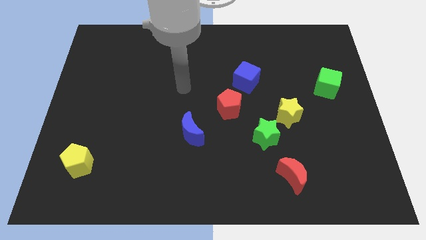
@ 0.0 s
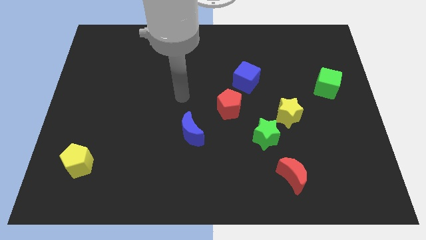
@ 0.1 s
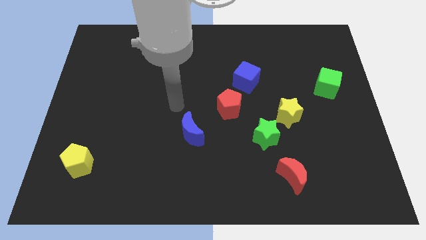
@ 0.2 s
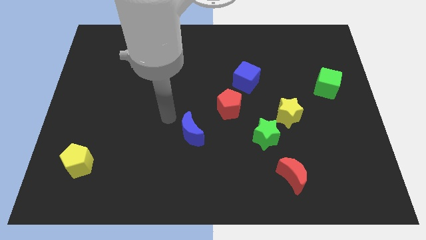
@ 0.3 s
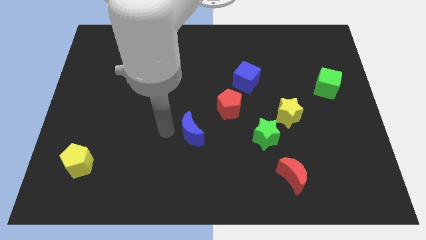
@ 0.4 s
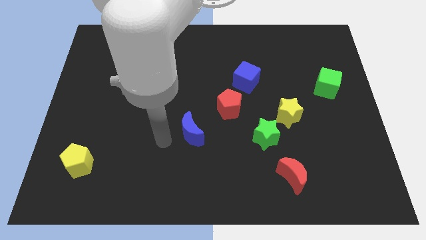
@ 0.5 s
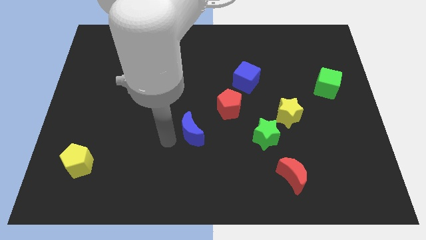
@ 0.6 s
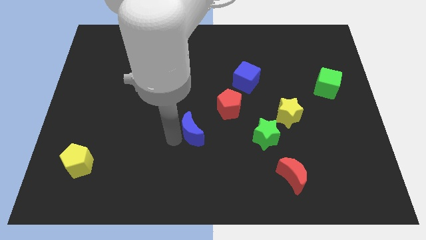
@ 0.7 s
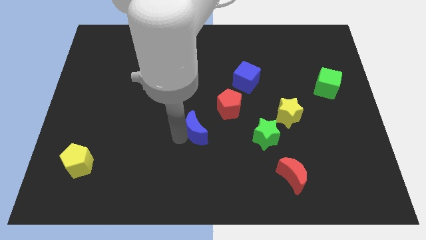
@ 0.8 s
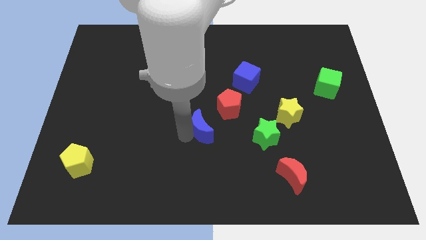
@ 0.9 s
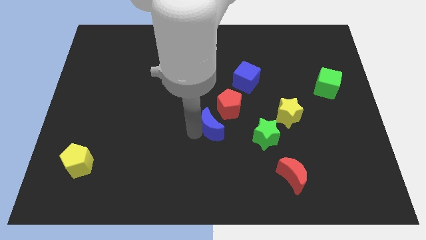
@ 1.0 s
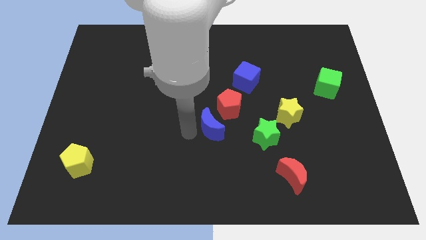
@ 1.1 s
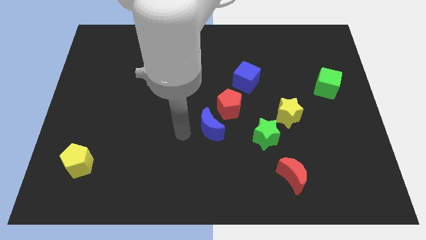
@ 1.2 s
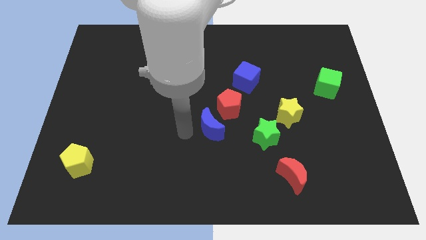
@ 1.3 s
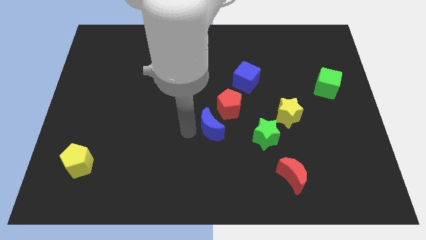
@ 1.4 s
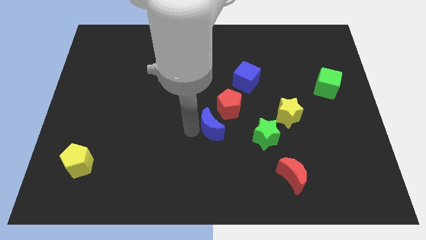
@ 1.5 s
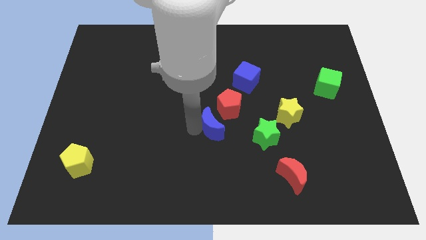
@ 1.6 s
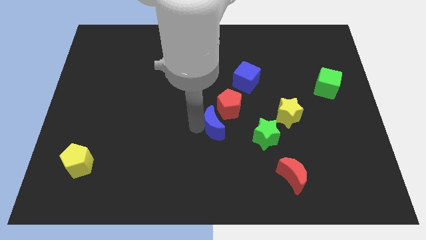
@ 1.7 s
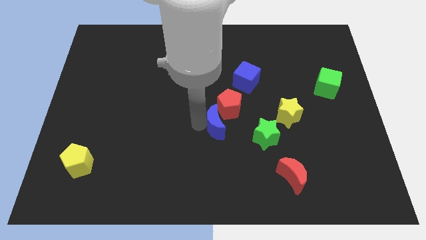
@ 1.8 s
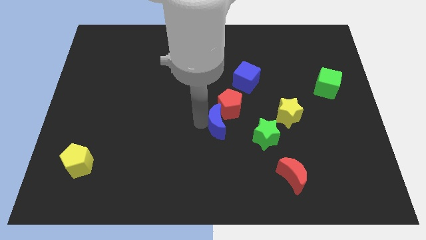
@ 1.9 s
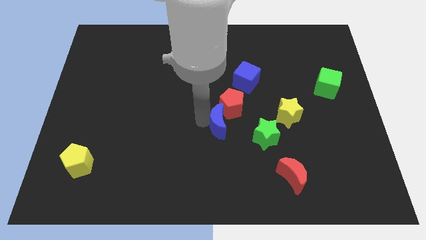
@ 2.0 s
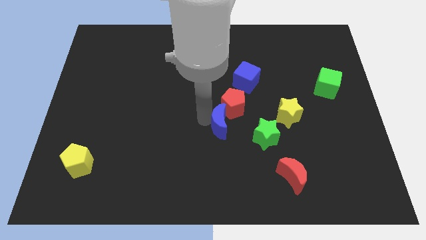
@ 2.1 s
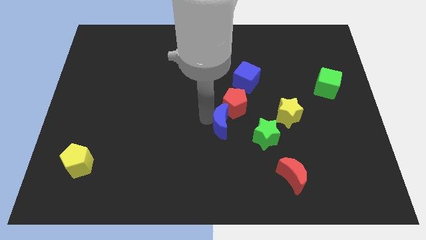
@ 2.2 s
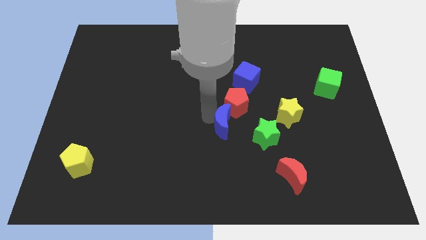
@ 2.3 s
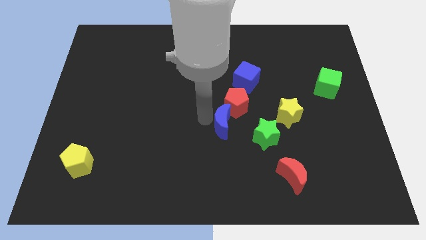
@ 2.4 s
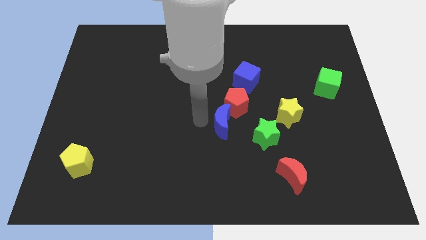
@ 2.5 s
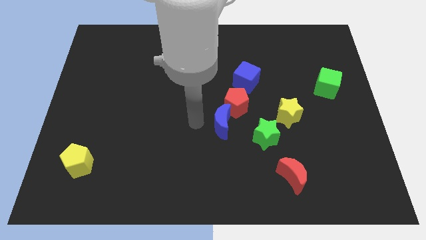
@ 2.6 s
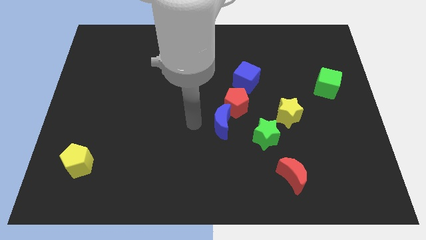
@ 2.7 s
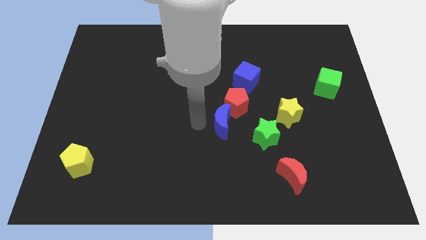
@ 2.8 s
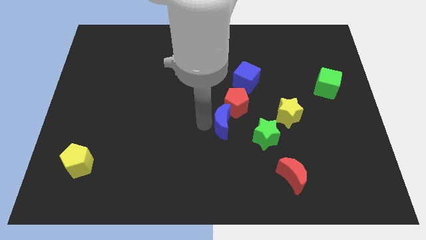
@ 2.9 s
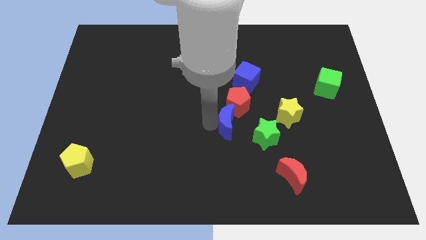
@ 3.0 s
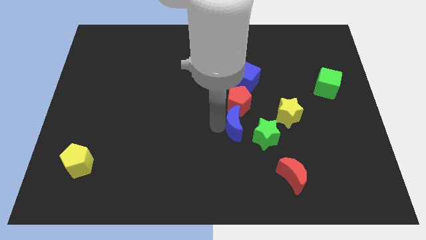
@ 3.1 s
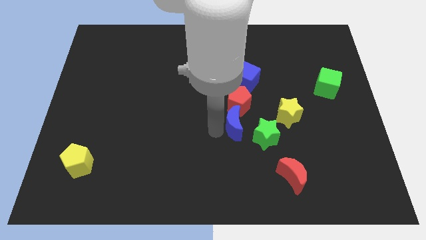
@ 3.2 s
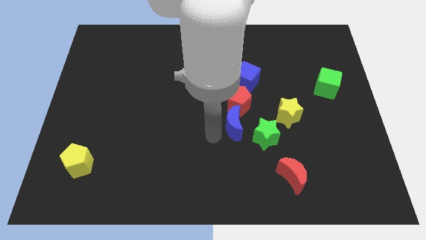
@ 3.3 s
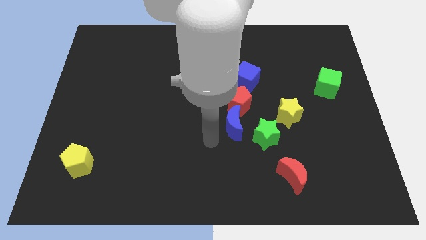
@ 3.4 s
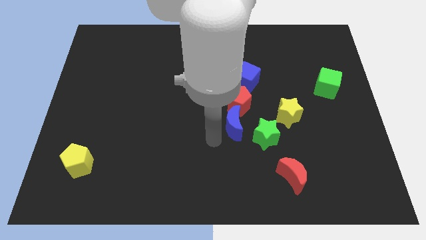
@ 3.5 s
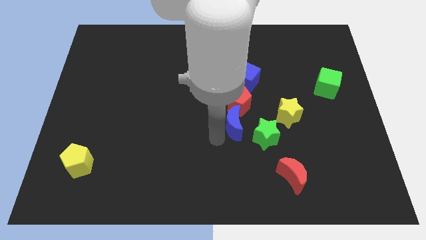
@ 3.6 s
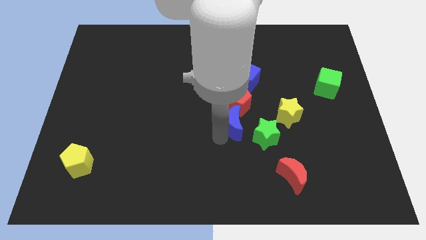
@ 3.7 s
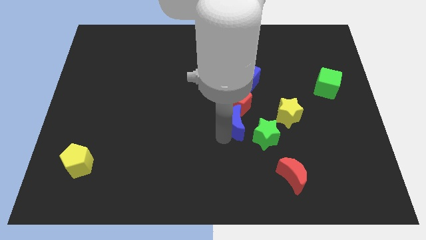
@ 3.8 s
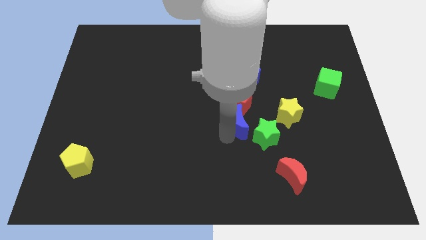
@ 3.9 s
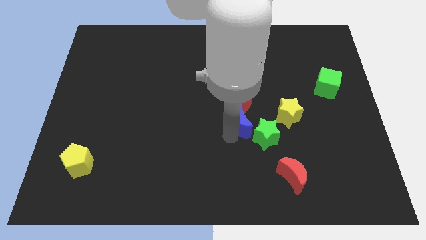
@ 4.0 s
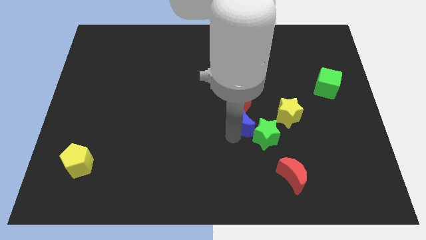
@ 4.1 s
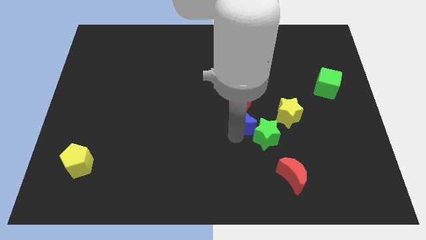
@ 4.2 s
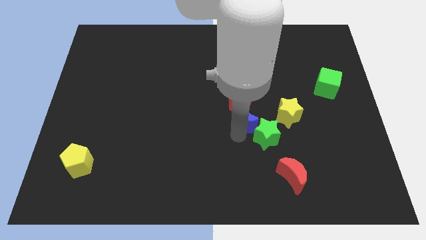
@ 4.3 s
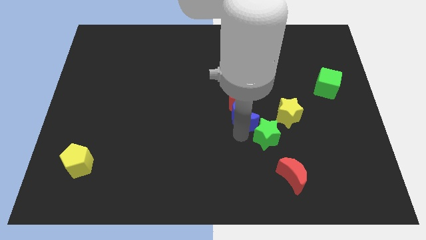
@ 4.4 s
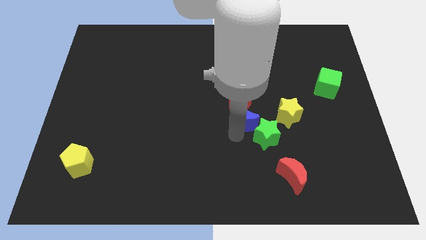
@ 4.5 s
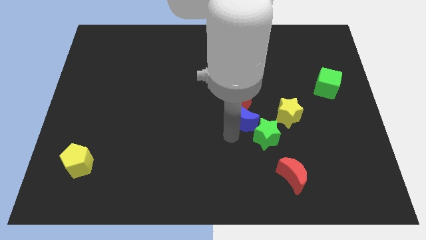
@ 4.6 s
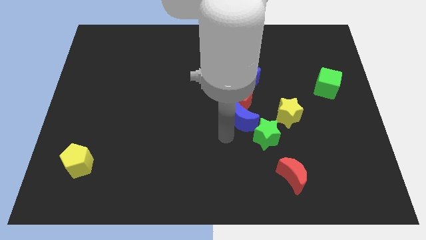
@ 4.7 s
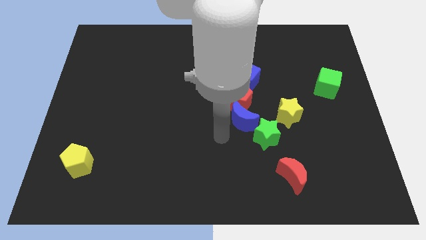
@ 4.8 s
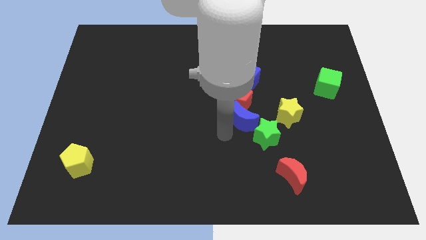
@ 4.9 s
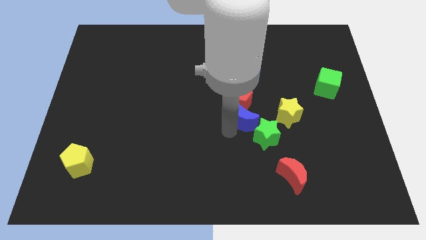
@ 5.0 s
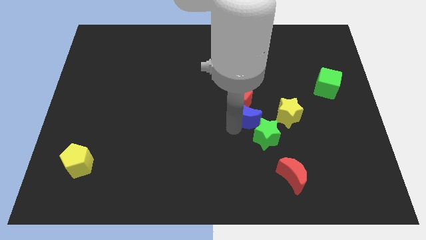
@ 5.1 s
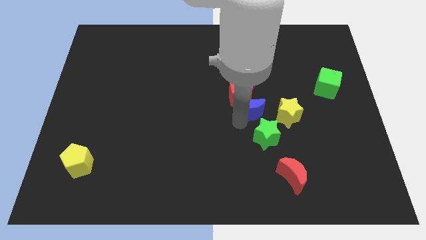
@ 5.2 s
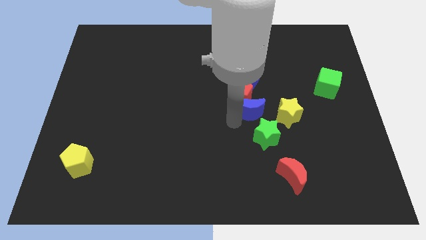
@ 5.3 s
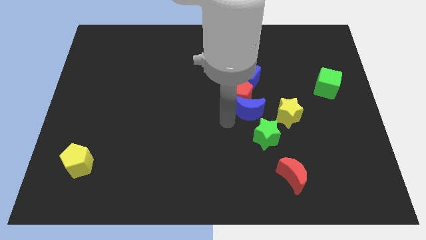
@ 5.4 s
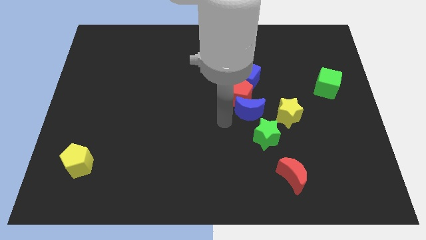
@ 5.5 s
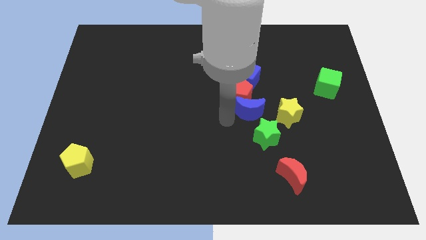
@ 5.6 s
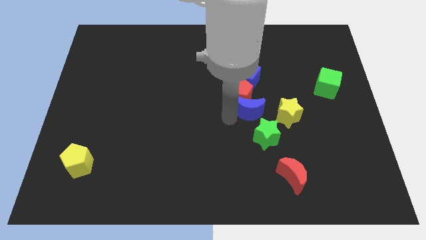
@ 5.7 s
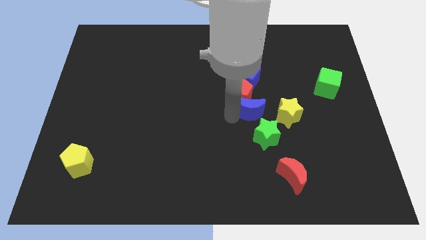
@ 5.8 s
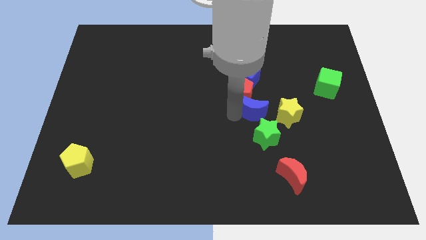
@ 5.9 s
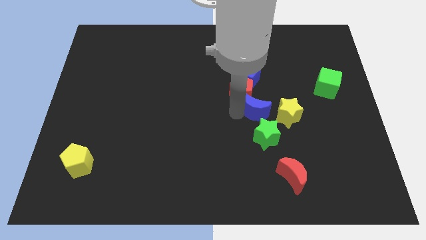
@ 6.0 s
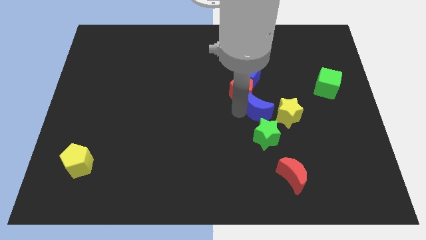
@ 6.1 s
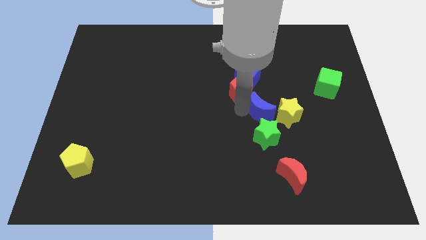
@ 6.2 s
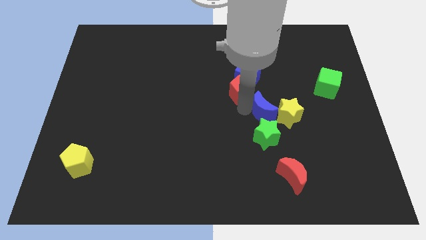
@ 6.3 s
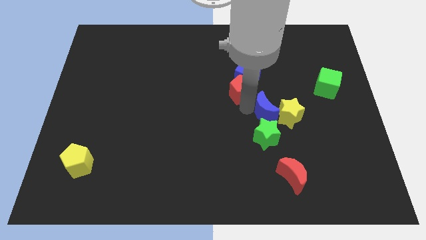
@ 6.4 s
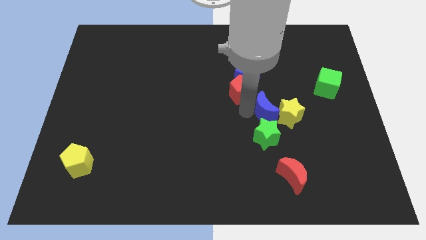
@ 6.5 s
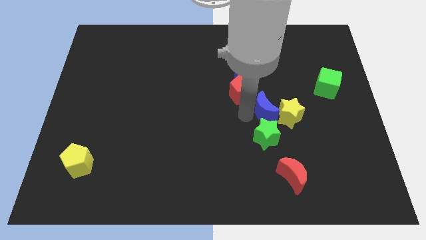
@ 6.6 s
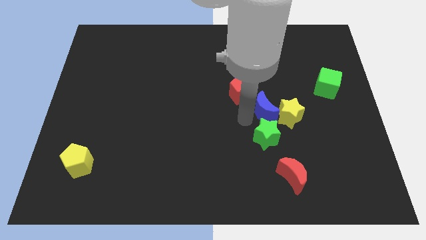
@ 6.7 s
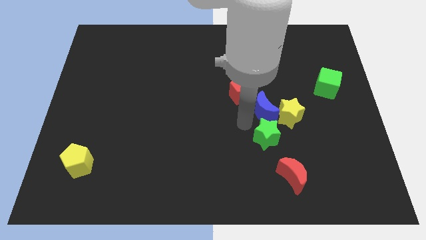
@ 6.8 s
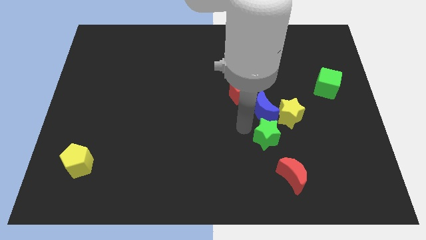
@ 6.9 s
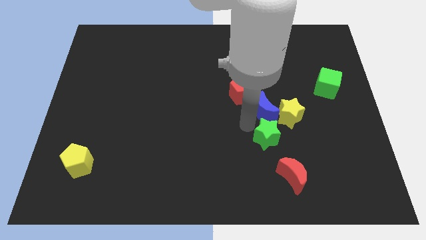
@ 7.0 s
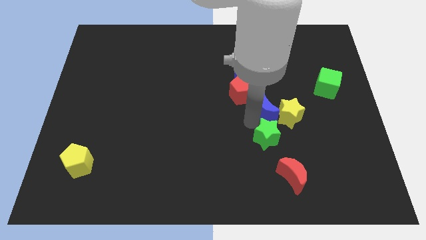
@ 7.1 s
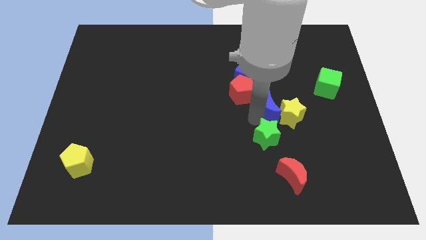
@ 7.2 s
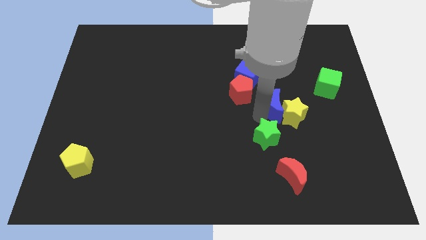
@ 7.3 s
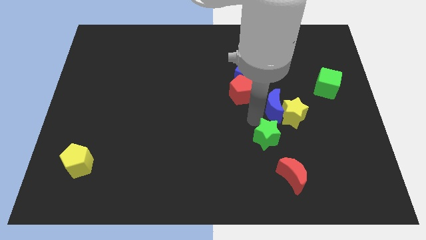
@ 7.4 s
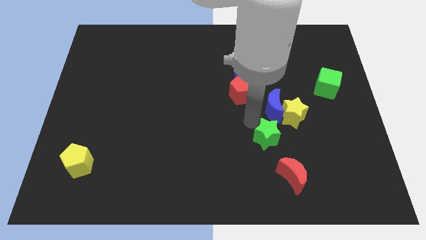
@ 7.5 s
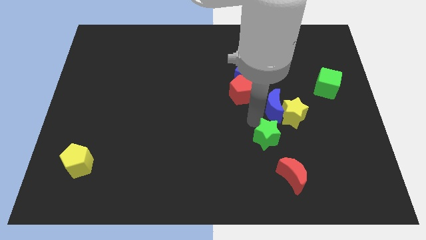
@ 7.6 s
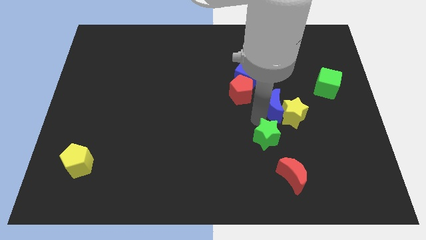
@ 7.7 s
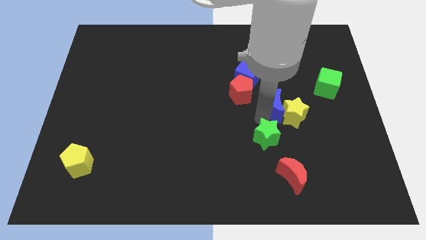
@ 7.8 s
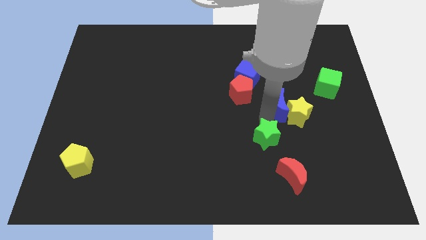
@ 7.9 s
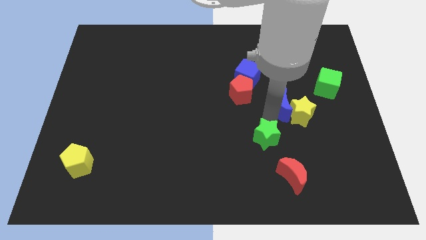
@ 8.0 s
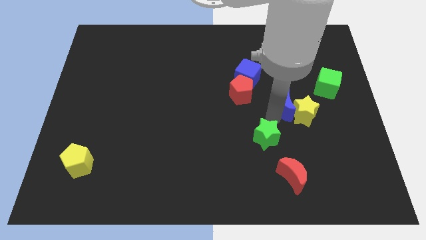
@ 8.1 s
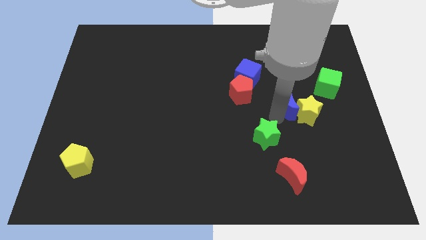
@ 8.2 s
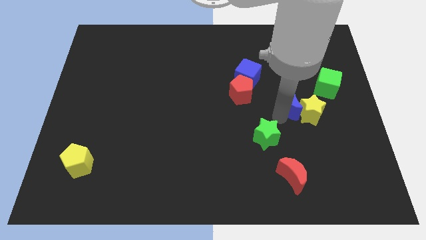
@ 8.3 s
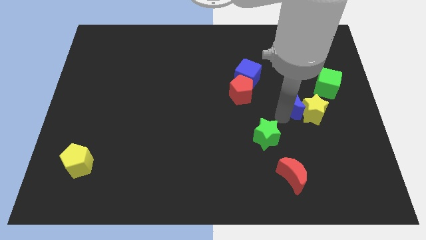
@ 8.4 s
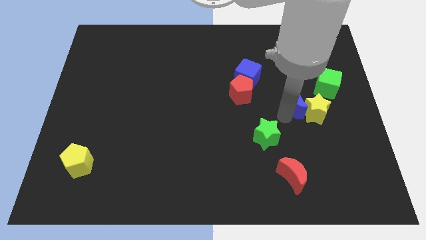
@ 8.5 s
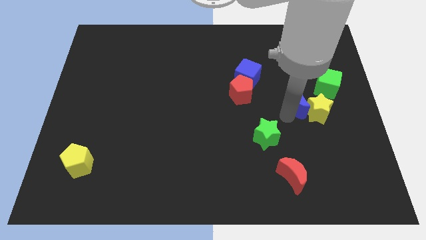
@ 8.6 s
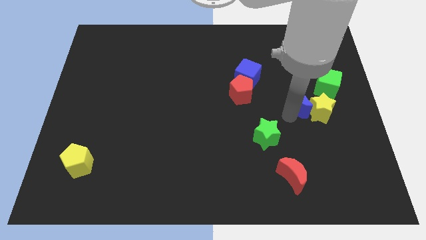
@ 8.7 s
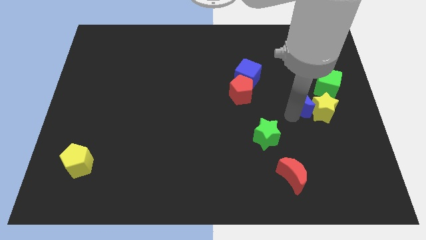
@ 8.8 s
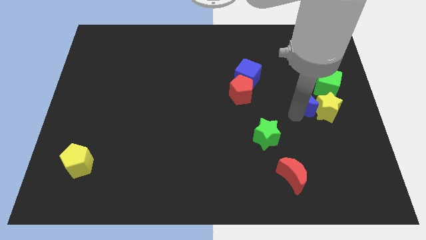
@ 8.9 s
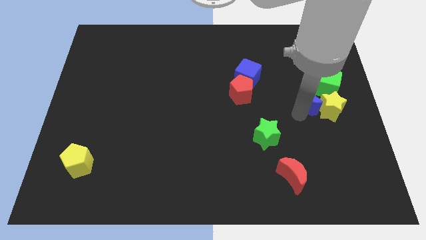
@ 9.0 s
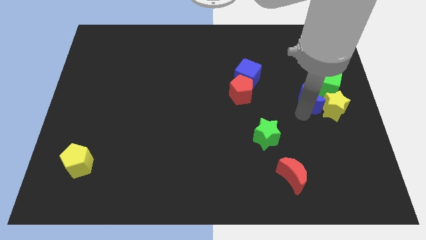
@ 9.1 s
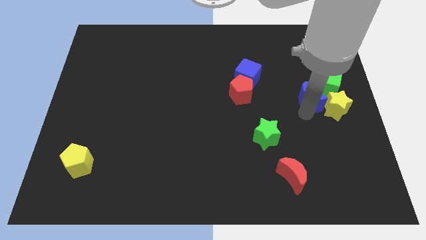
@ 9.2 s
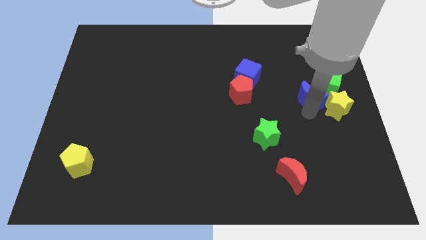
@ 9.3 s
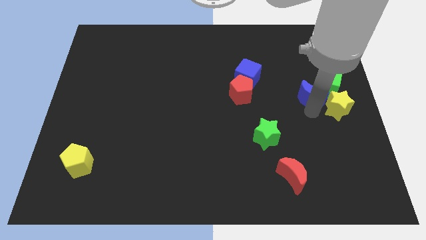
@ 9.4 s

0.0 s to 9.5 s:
put the blue moon next to the green cube
